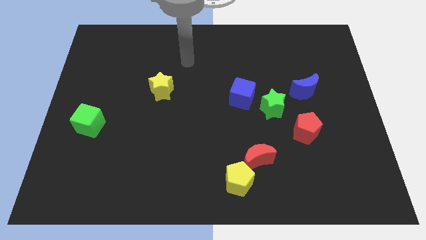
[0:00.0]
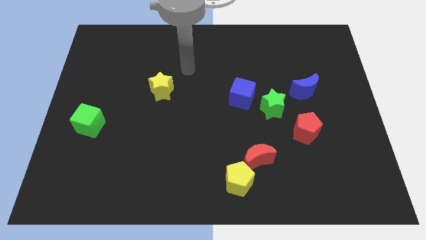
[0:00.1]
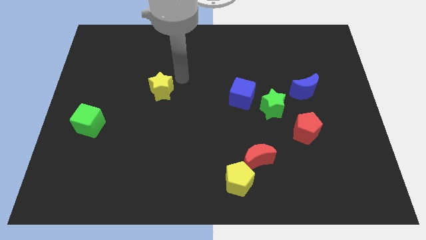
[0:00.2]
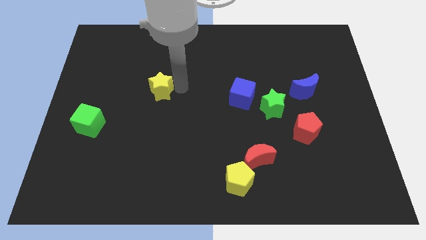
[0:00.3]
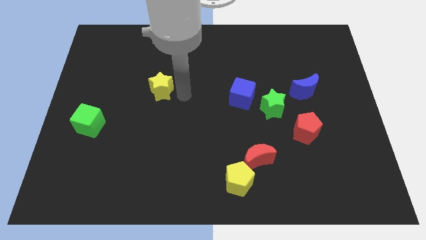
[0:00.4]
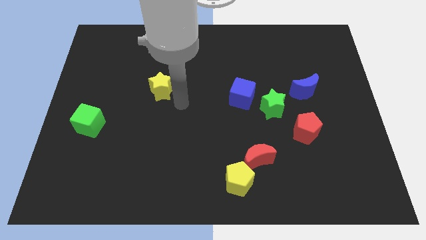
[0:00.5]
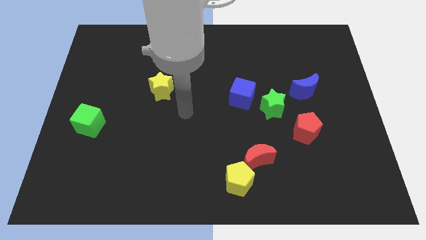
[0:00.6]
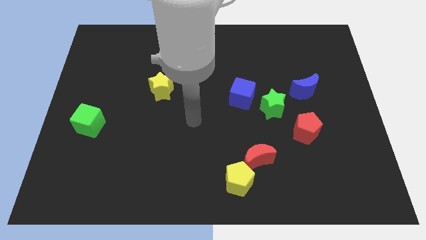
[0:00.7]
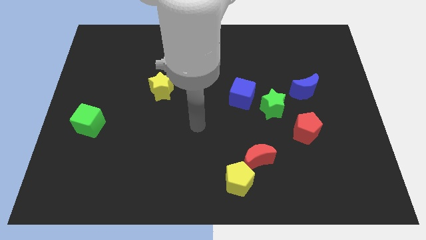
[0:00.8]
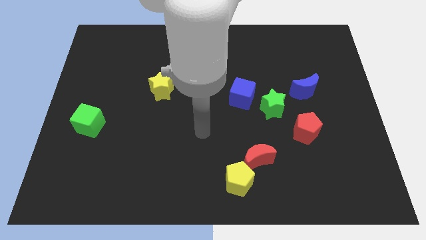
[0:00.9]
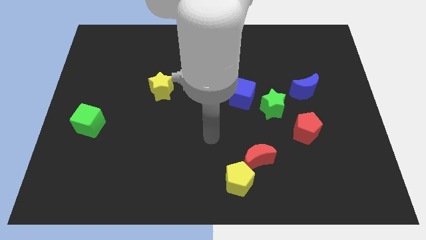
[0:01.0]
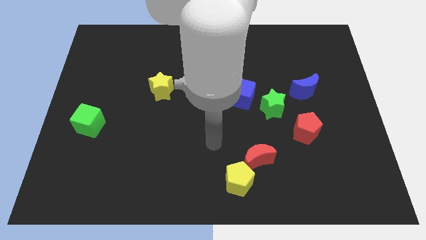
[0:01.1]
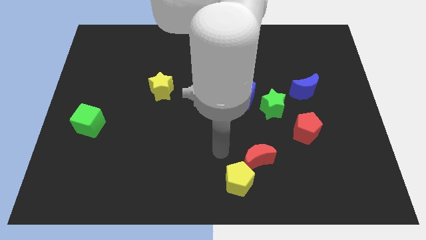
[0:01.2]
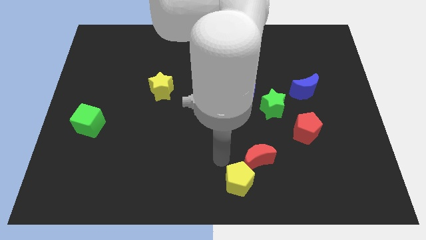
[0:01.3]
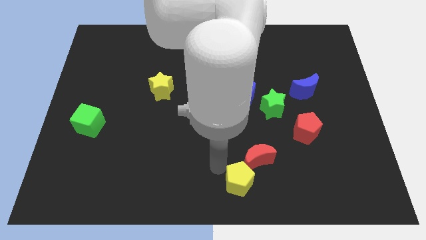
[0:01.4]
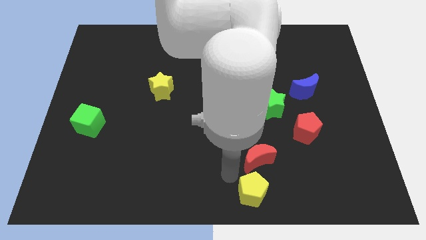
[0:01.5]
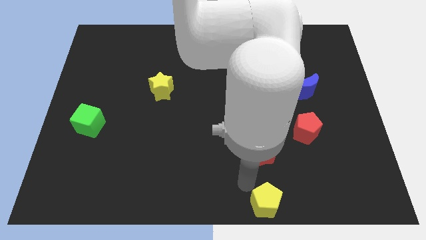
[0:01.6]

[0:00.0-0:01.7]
pull the red moon apart from the yellow pentagon

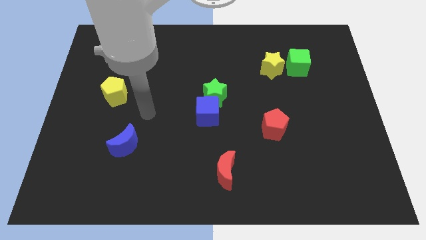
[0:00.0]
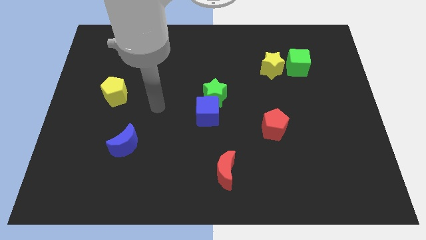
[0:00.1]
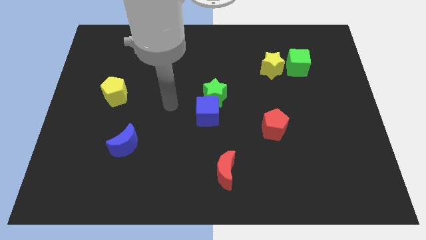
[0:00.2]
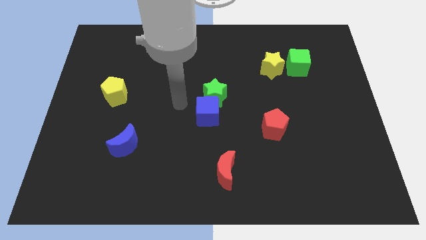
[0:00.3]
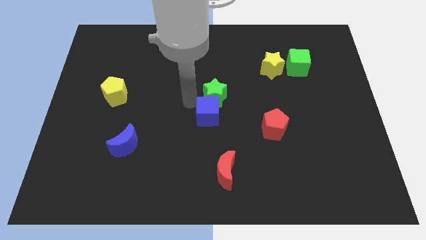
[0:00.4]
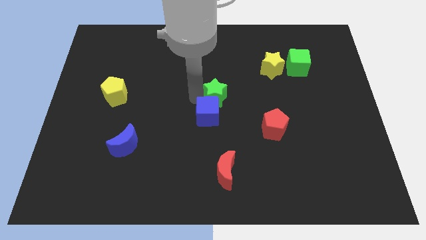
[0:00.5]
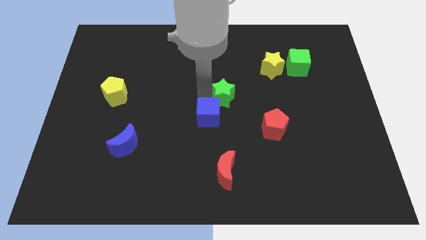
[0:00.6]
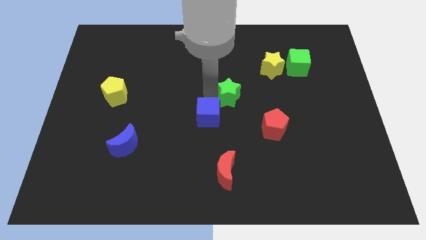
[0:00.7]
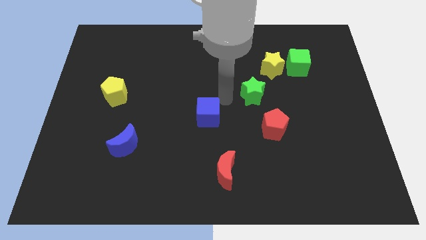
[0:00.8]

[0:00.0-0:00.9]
pull the blue cube apart from the green star

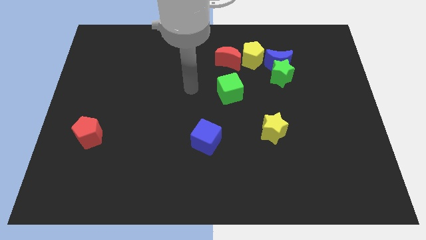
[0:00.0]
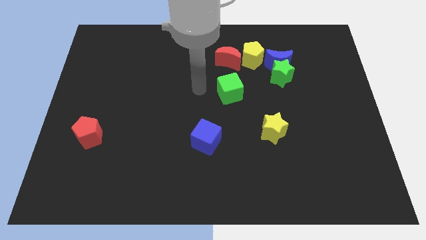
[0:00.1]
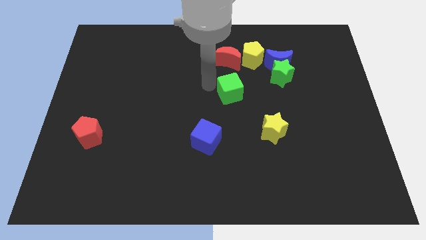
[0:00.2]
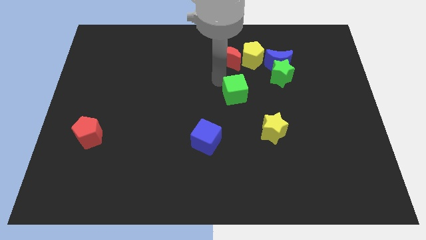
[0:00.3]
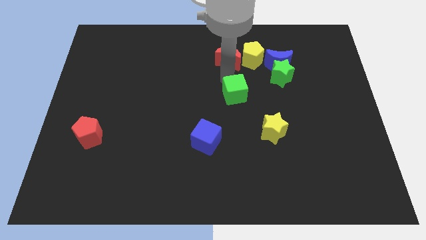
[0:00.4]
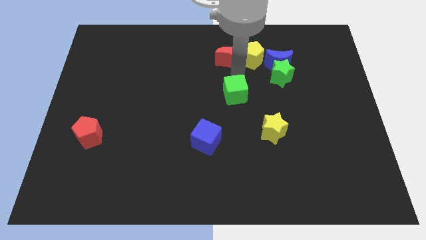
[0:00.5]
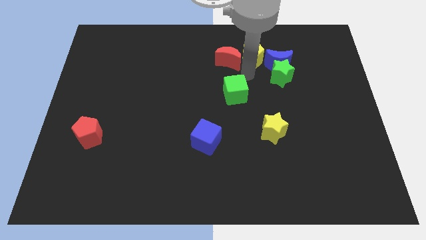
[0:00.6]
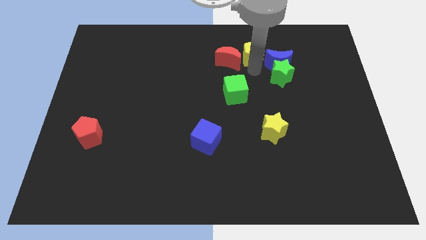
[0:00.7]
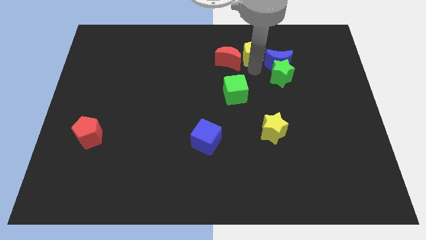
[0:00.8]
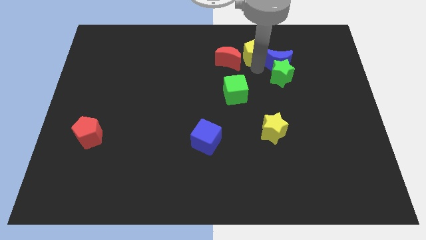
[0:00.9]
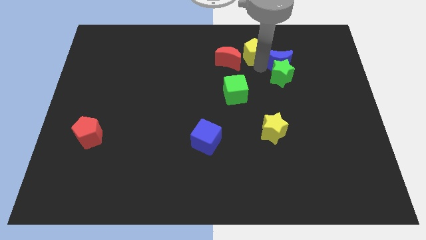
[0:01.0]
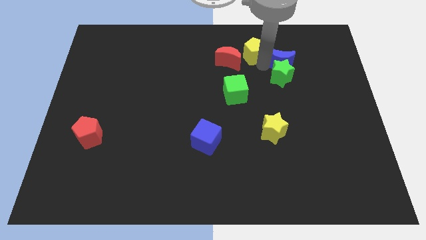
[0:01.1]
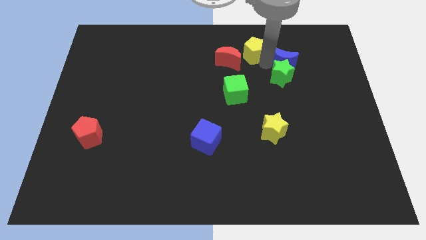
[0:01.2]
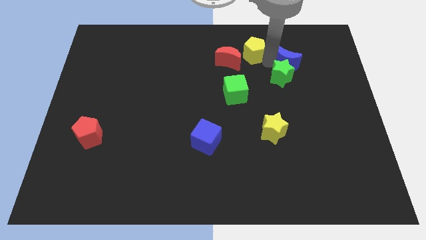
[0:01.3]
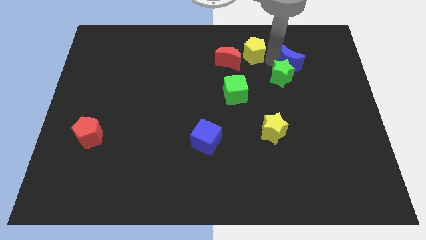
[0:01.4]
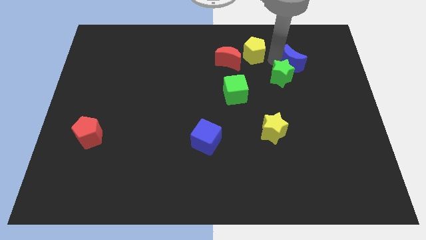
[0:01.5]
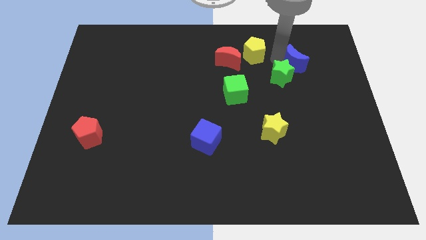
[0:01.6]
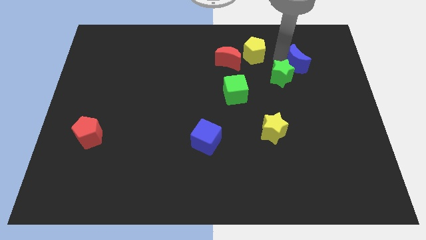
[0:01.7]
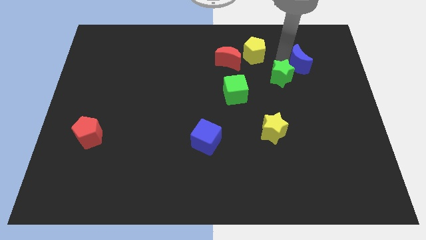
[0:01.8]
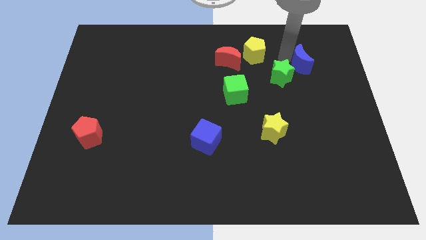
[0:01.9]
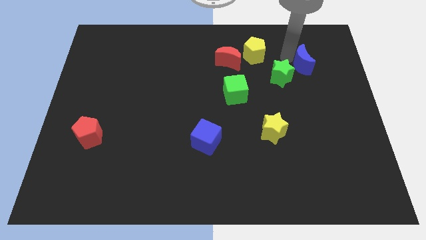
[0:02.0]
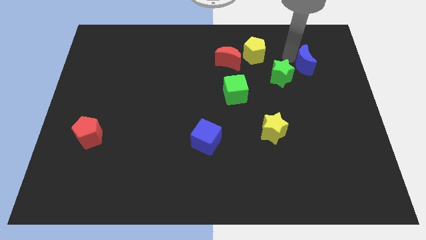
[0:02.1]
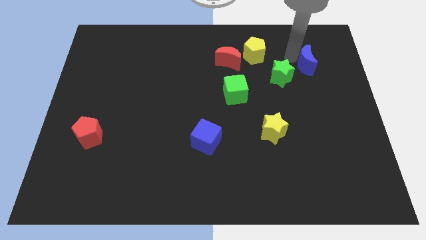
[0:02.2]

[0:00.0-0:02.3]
pull the blue moon apart from the green star and yellow pentagon

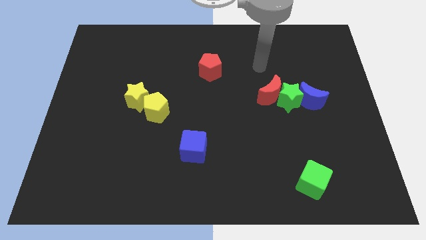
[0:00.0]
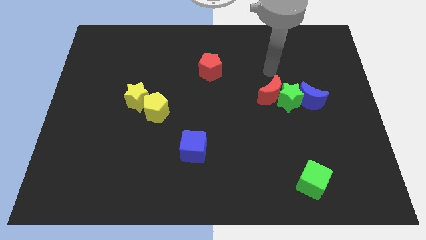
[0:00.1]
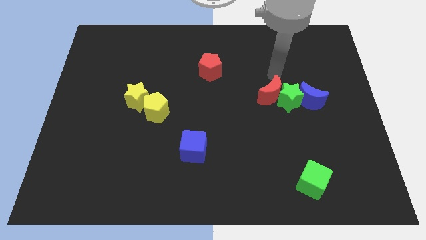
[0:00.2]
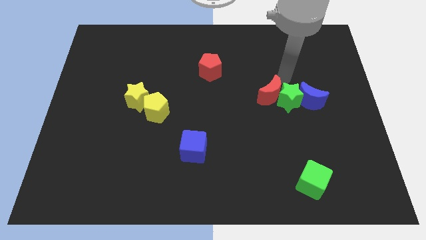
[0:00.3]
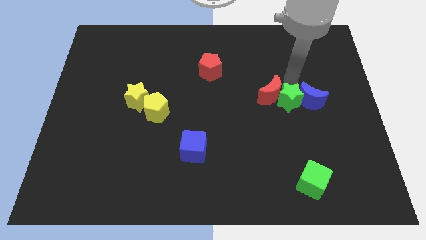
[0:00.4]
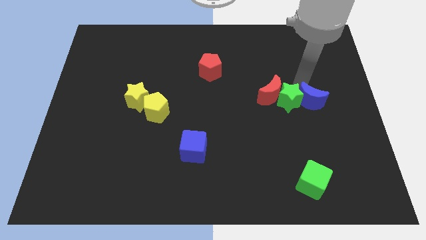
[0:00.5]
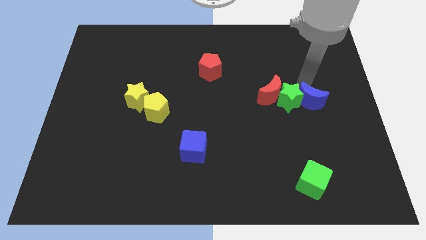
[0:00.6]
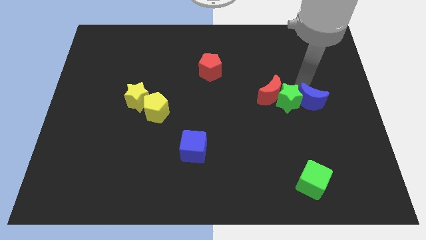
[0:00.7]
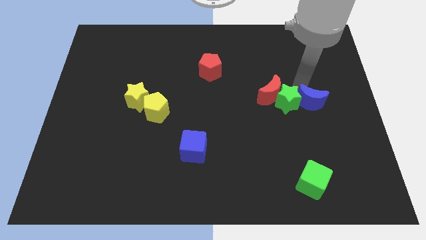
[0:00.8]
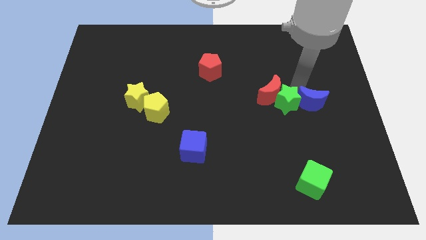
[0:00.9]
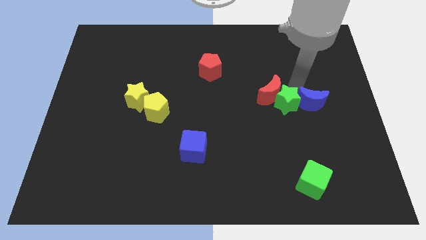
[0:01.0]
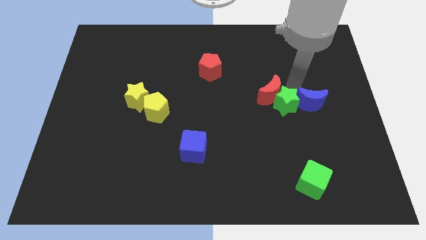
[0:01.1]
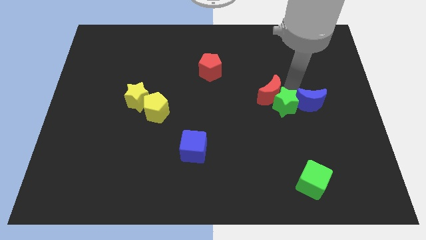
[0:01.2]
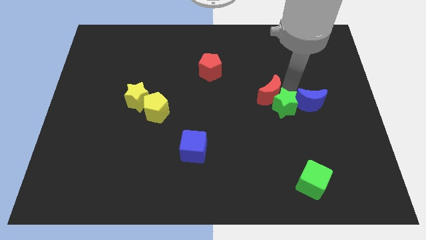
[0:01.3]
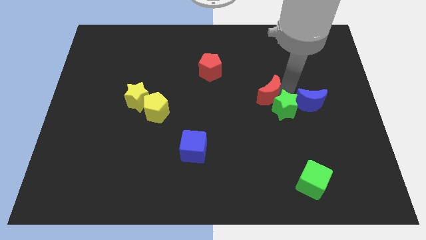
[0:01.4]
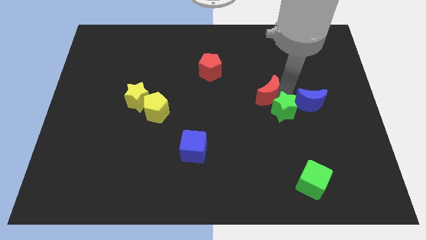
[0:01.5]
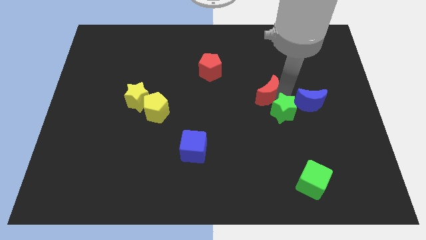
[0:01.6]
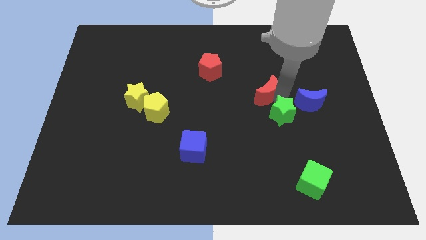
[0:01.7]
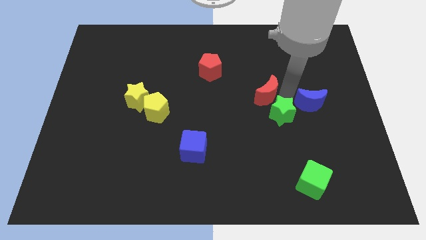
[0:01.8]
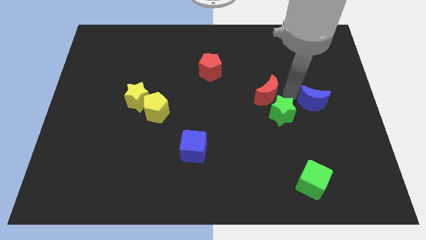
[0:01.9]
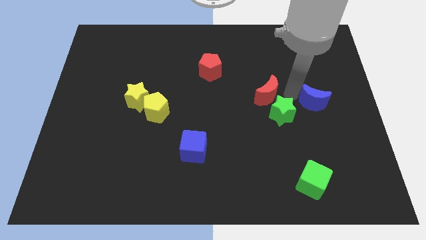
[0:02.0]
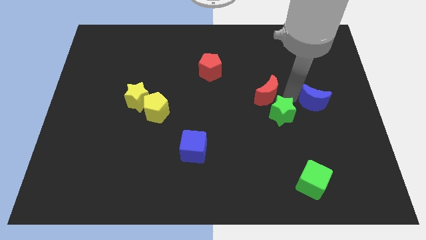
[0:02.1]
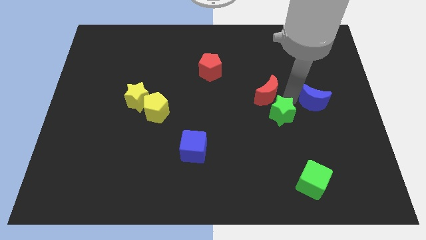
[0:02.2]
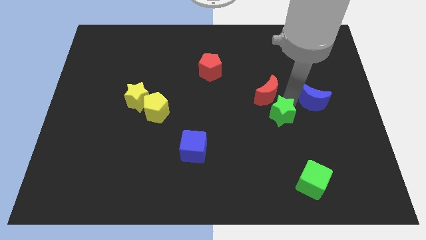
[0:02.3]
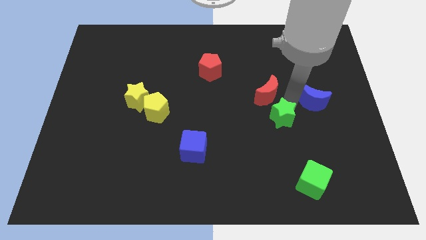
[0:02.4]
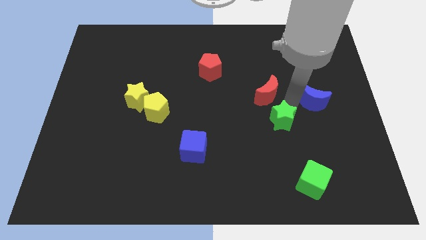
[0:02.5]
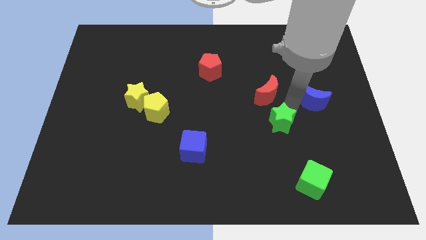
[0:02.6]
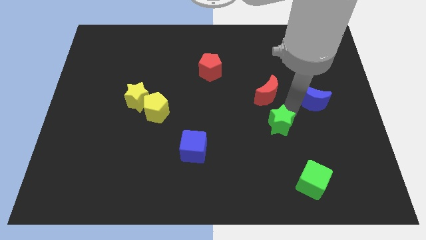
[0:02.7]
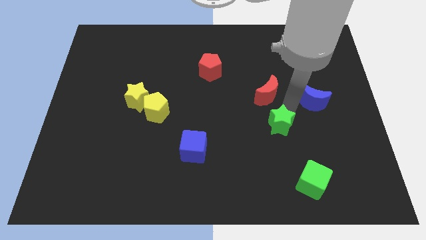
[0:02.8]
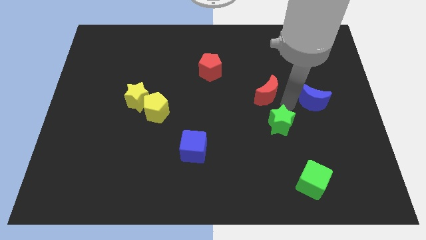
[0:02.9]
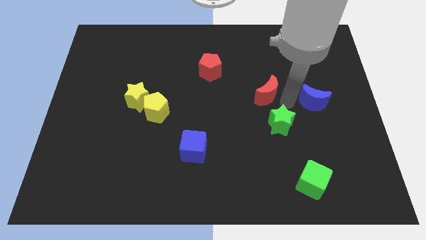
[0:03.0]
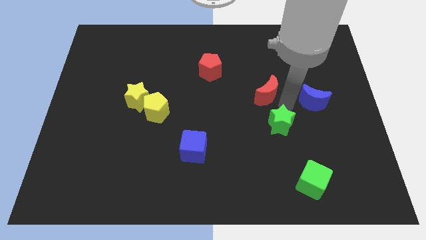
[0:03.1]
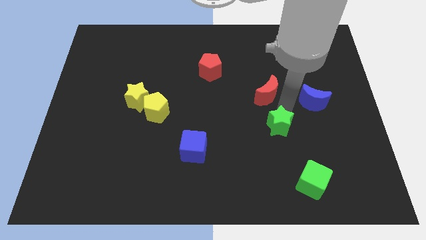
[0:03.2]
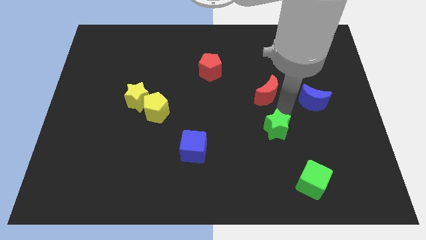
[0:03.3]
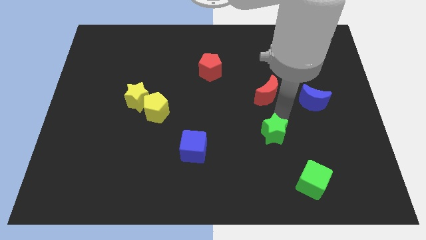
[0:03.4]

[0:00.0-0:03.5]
pull the green star apart from the red moon and blue moon

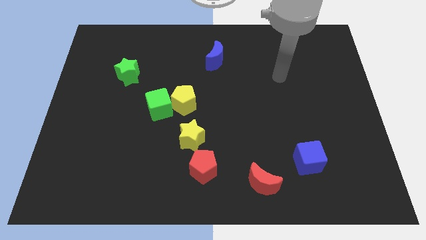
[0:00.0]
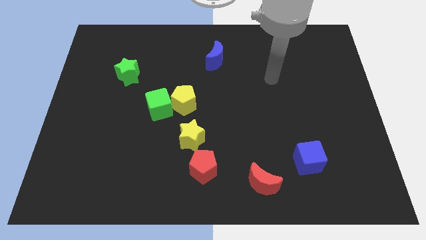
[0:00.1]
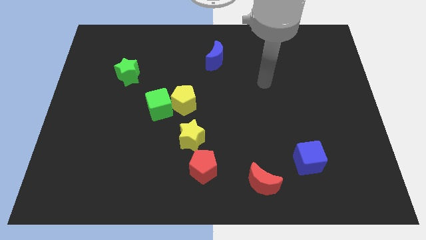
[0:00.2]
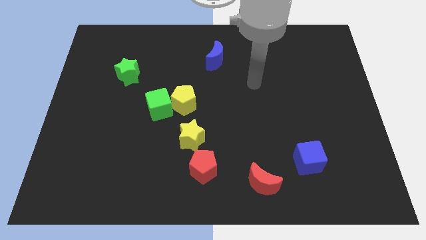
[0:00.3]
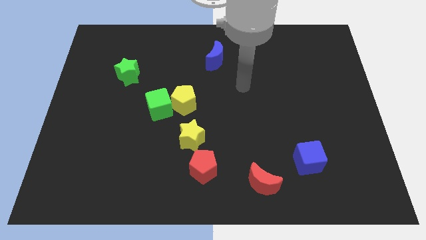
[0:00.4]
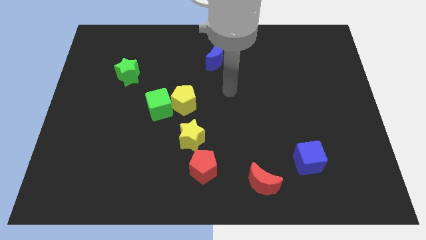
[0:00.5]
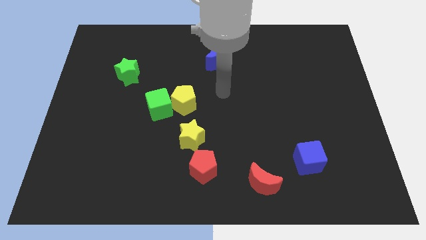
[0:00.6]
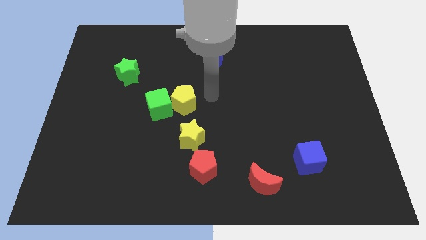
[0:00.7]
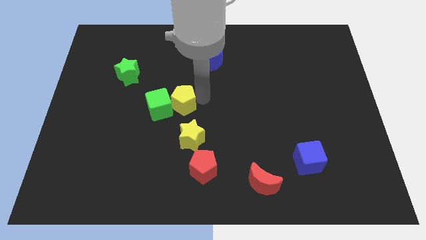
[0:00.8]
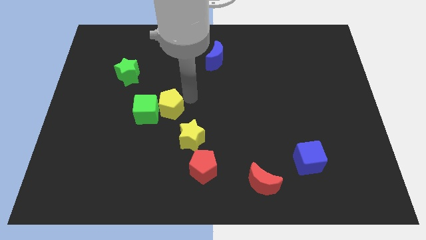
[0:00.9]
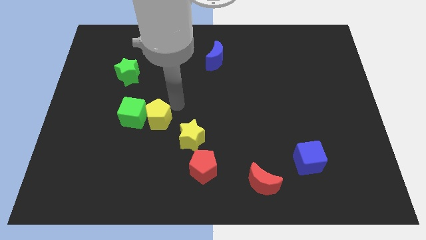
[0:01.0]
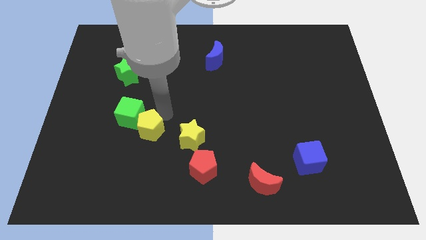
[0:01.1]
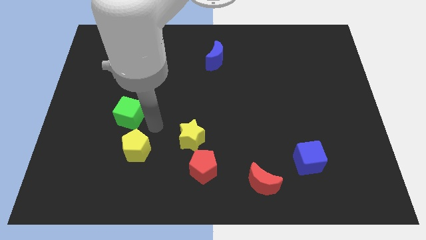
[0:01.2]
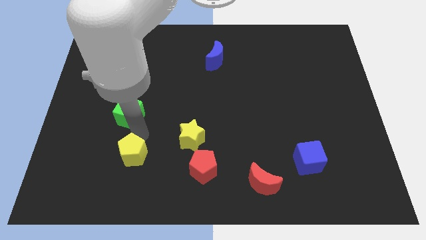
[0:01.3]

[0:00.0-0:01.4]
pull the green cube apart from the yellow pentagon
